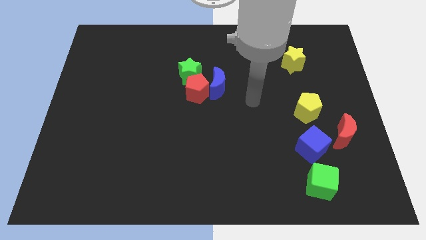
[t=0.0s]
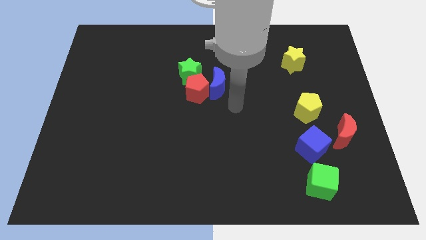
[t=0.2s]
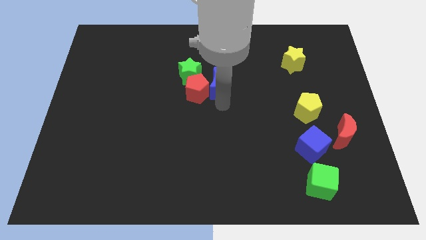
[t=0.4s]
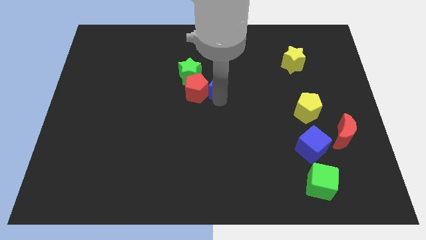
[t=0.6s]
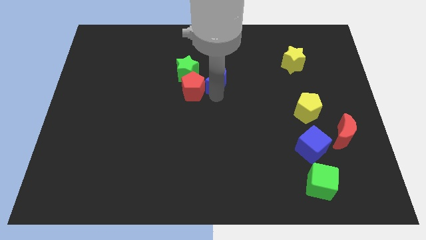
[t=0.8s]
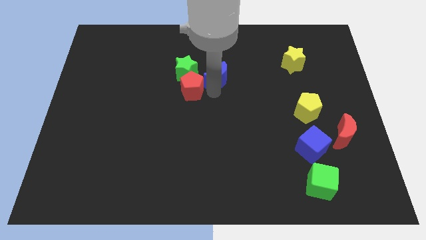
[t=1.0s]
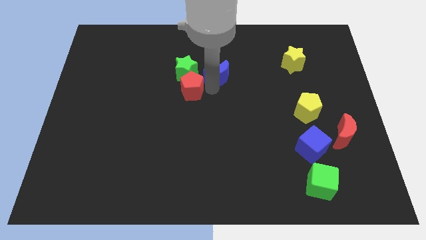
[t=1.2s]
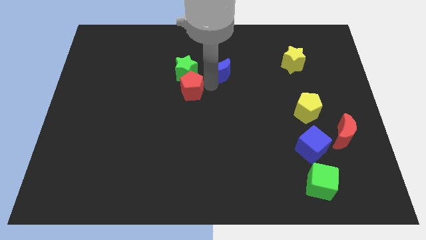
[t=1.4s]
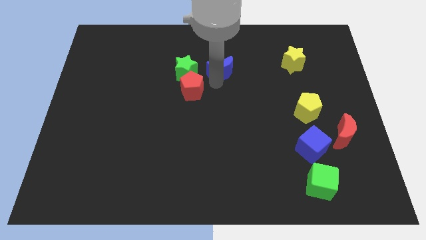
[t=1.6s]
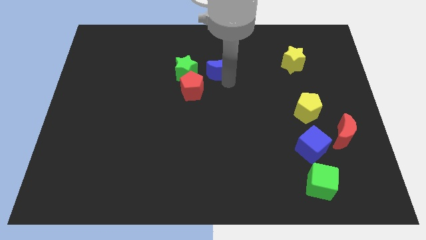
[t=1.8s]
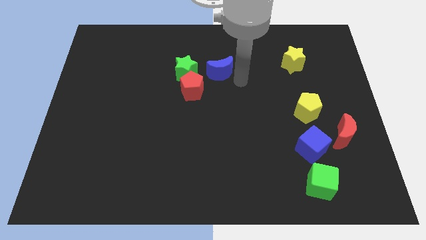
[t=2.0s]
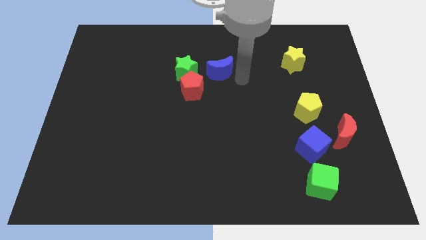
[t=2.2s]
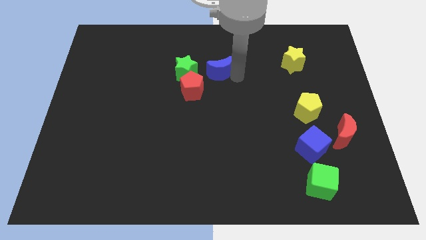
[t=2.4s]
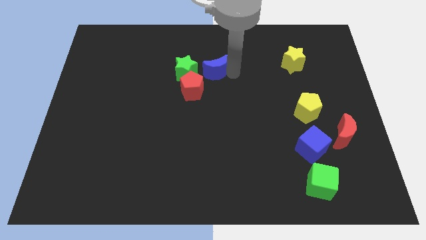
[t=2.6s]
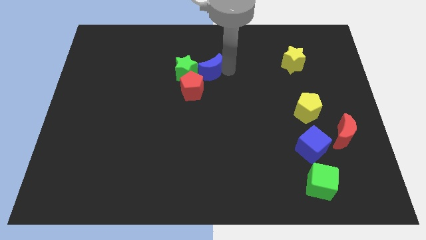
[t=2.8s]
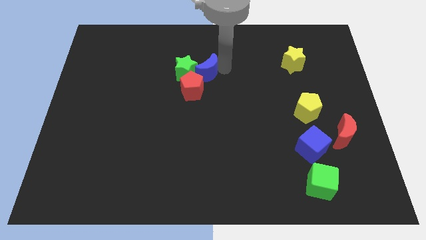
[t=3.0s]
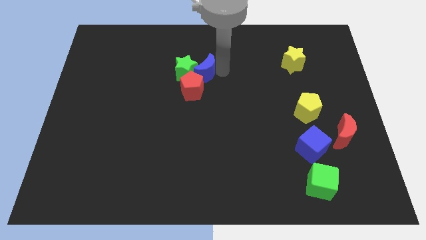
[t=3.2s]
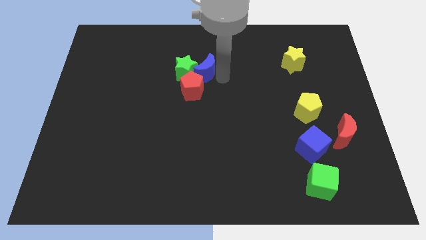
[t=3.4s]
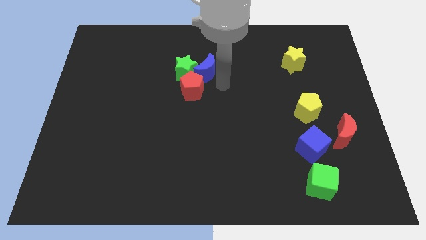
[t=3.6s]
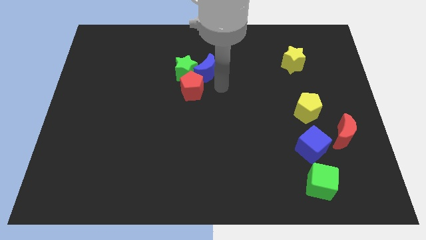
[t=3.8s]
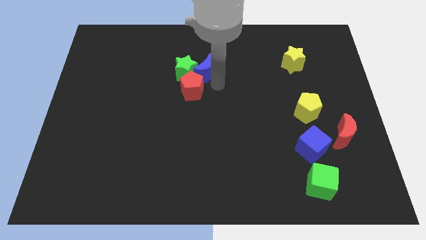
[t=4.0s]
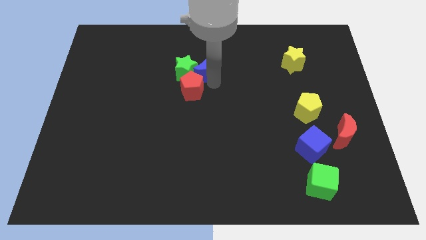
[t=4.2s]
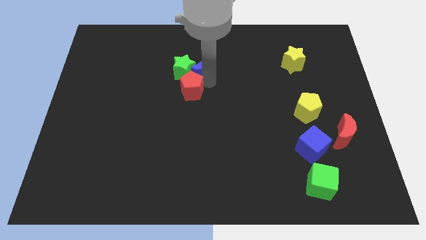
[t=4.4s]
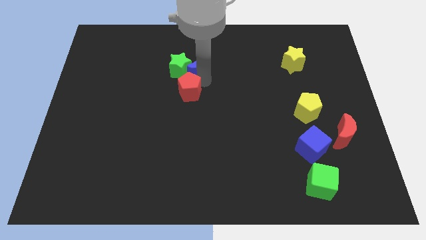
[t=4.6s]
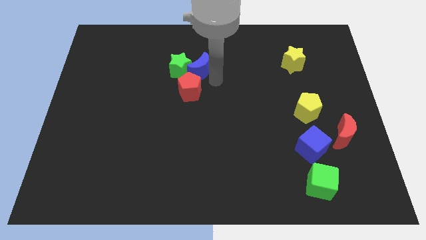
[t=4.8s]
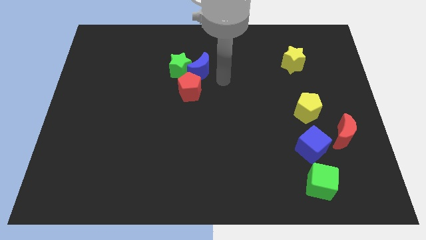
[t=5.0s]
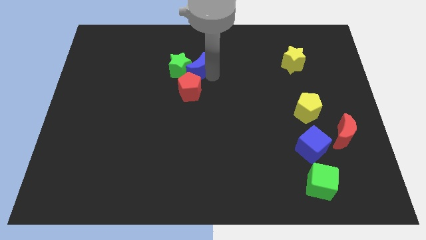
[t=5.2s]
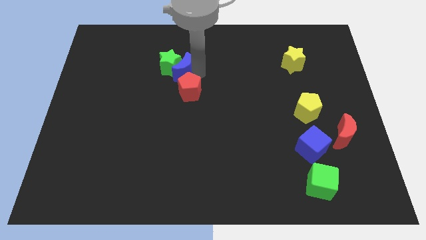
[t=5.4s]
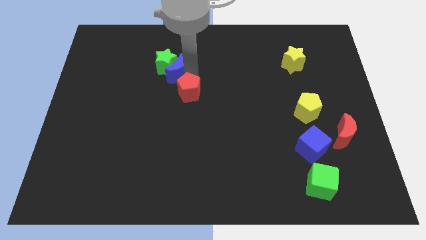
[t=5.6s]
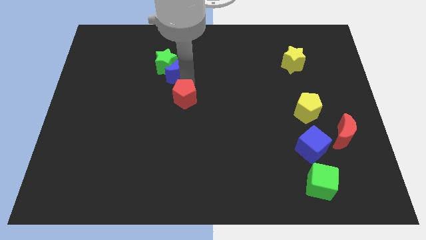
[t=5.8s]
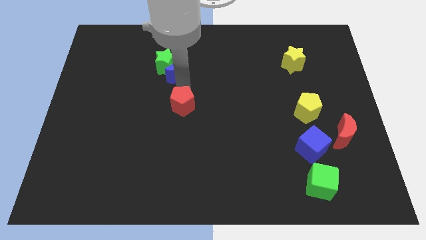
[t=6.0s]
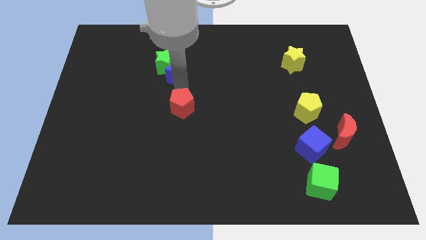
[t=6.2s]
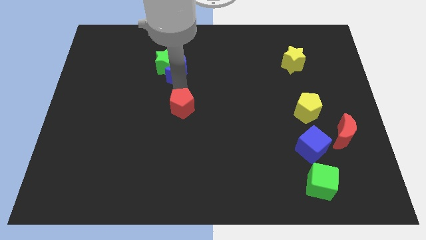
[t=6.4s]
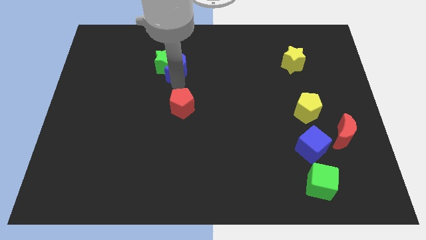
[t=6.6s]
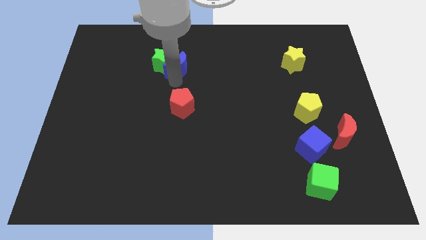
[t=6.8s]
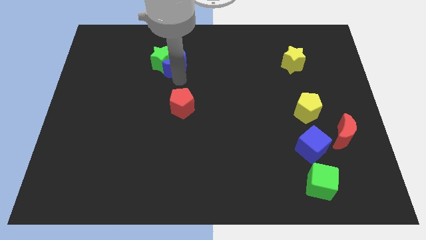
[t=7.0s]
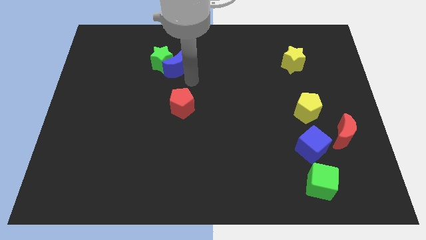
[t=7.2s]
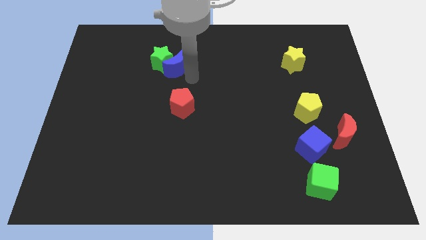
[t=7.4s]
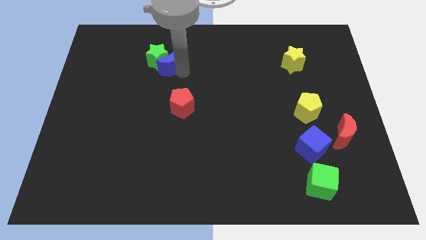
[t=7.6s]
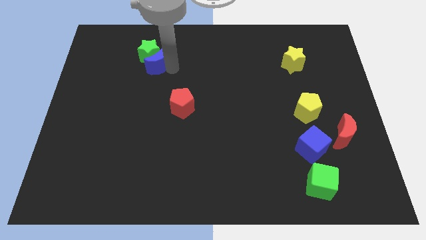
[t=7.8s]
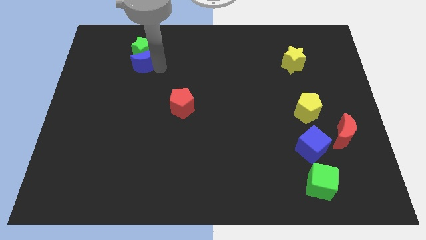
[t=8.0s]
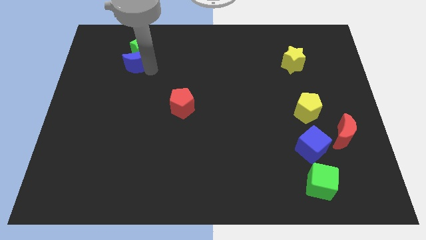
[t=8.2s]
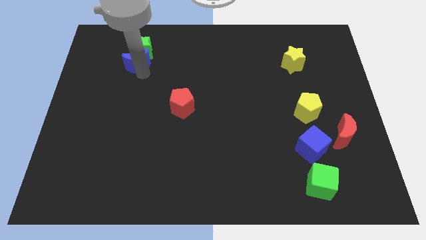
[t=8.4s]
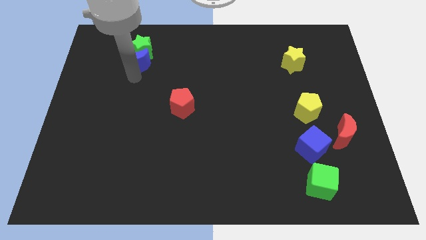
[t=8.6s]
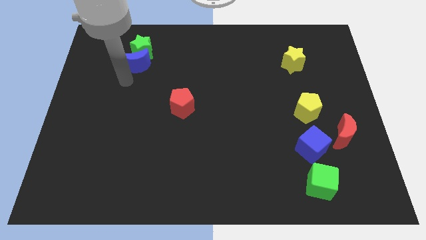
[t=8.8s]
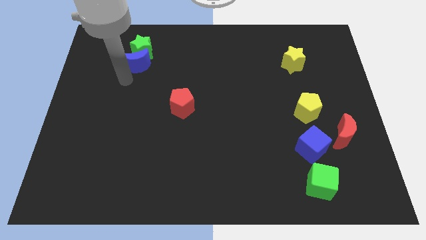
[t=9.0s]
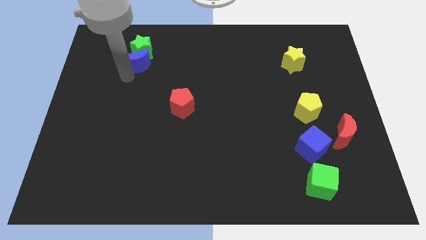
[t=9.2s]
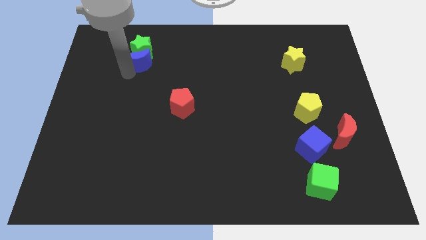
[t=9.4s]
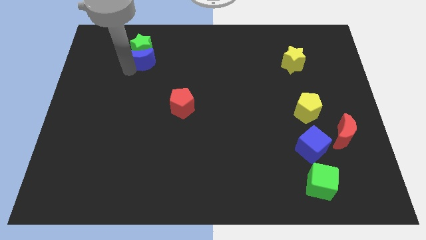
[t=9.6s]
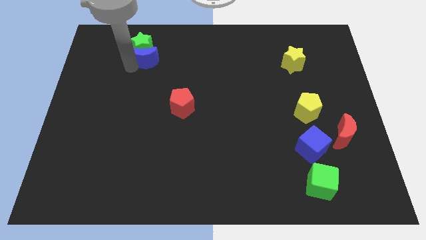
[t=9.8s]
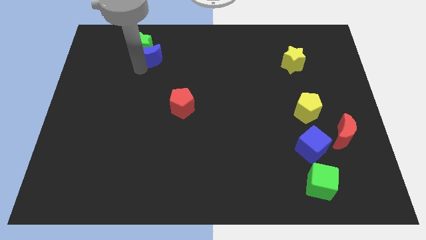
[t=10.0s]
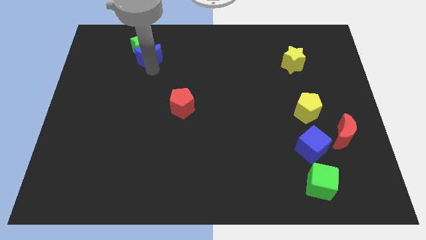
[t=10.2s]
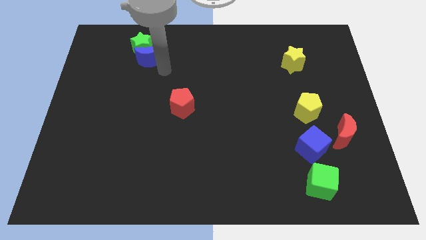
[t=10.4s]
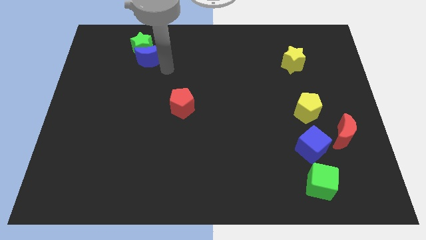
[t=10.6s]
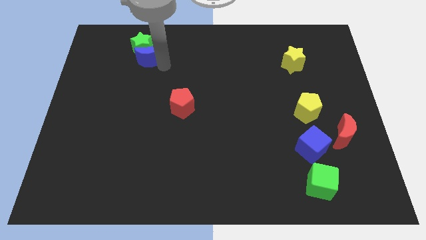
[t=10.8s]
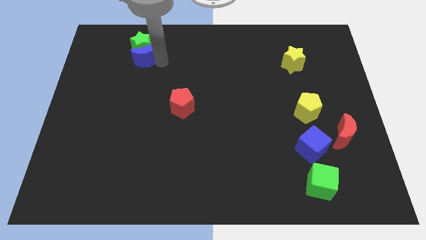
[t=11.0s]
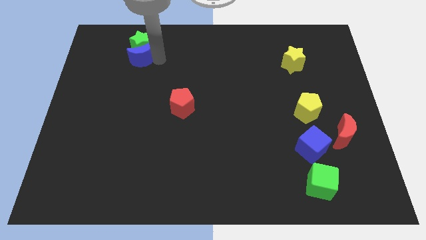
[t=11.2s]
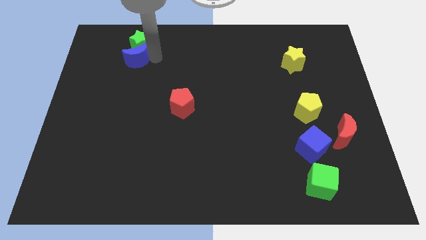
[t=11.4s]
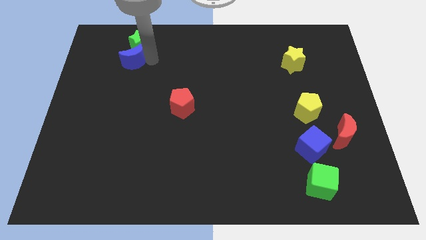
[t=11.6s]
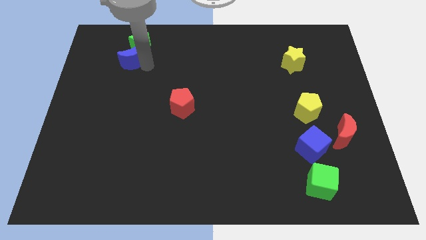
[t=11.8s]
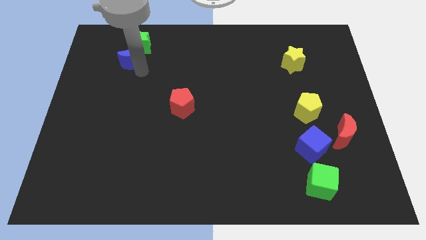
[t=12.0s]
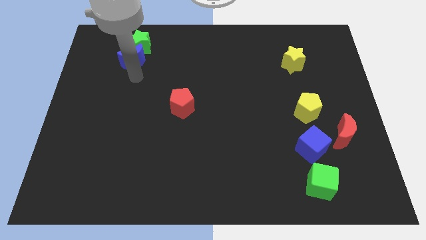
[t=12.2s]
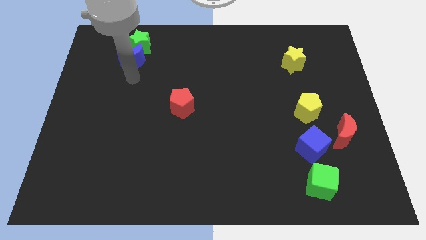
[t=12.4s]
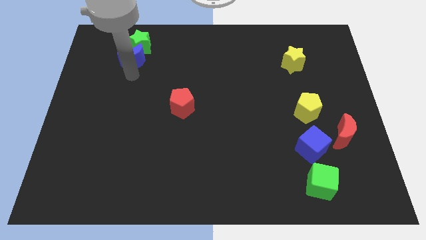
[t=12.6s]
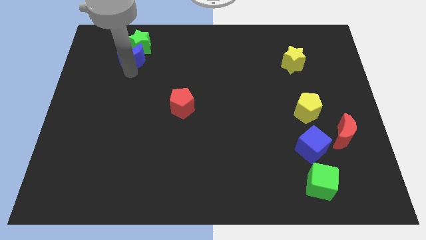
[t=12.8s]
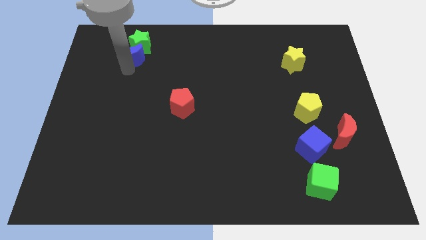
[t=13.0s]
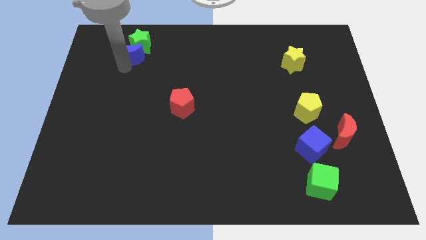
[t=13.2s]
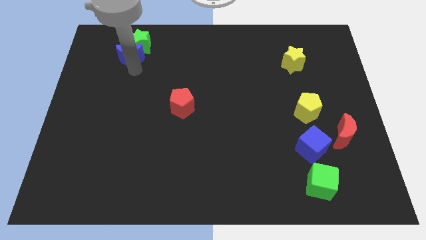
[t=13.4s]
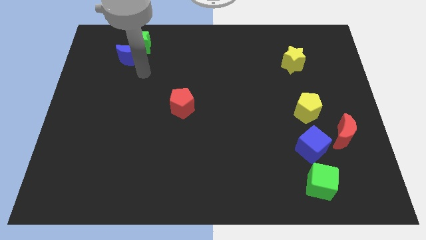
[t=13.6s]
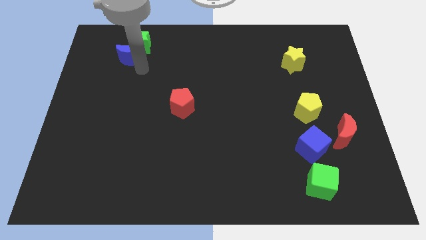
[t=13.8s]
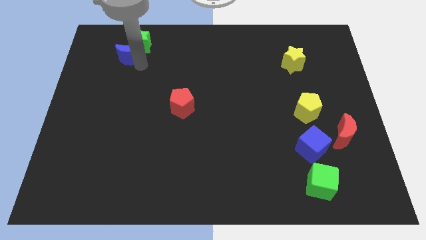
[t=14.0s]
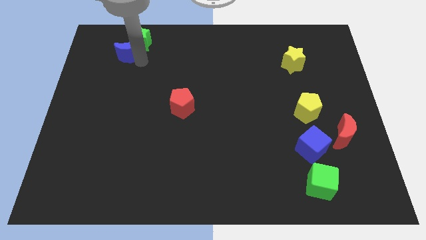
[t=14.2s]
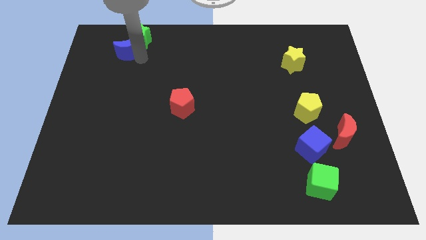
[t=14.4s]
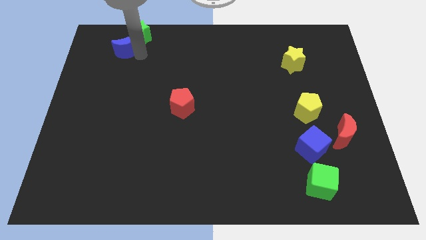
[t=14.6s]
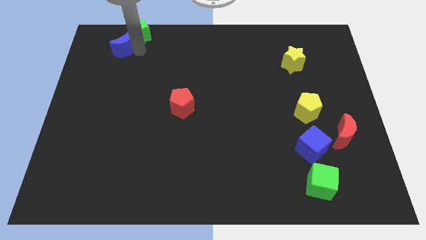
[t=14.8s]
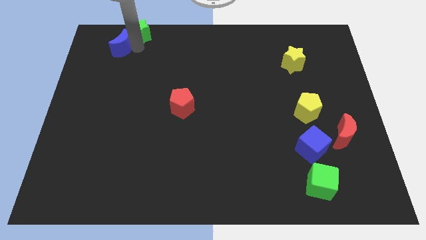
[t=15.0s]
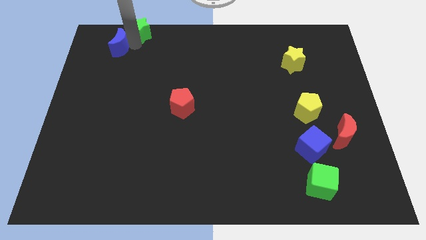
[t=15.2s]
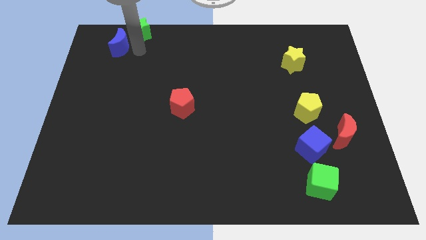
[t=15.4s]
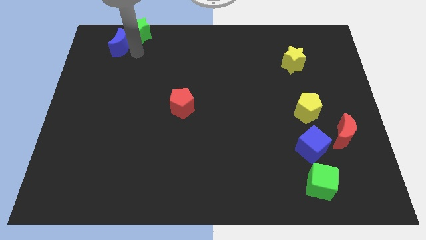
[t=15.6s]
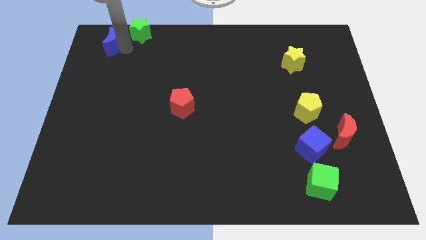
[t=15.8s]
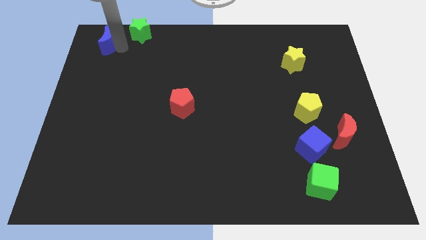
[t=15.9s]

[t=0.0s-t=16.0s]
put the blue moon to the upper left corner
